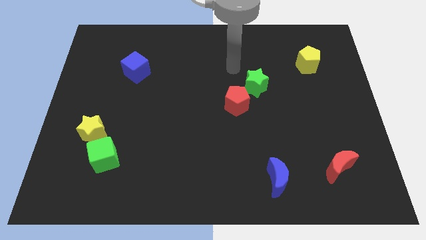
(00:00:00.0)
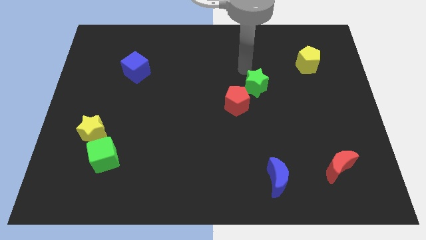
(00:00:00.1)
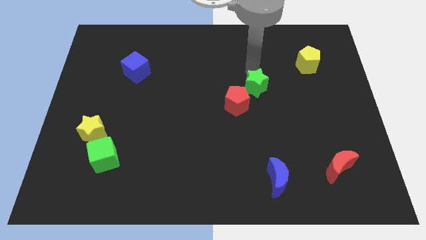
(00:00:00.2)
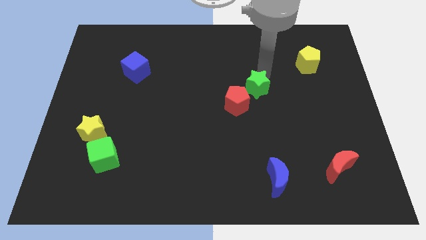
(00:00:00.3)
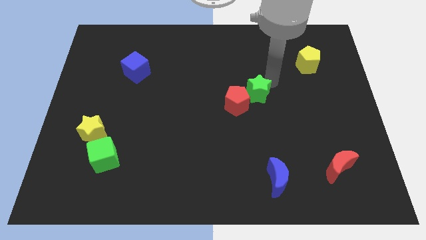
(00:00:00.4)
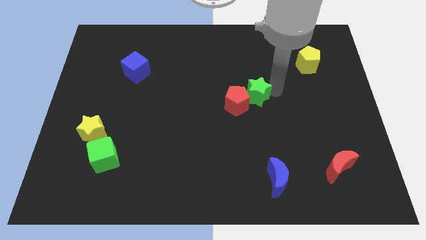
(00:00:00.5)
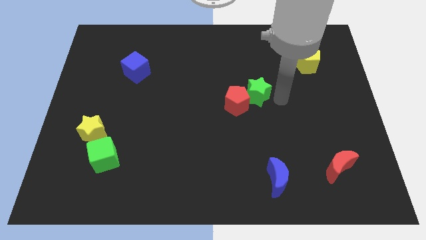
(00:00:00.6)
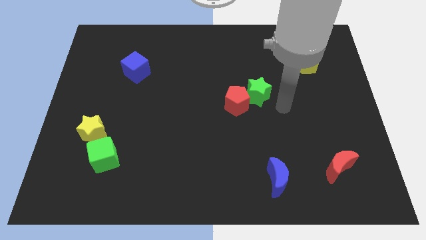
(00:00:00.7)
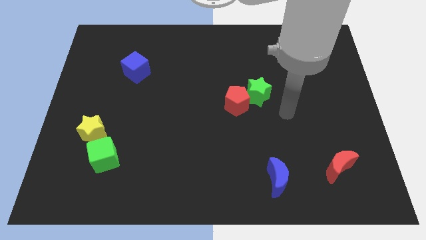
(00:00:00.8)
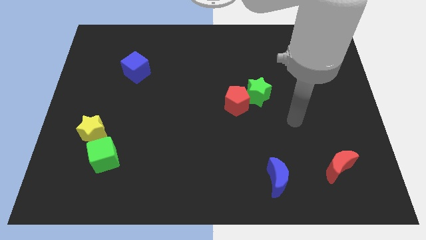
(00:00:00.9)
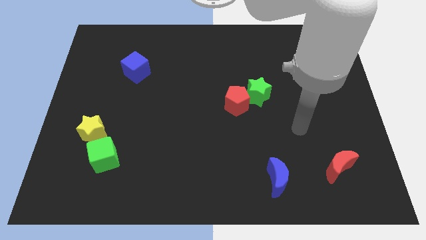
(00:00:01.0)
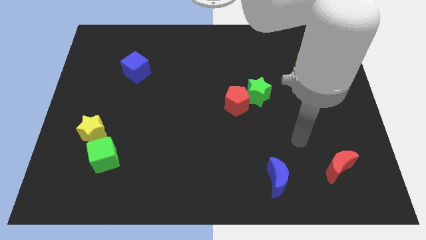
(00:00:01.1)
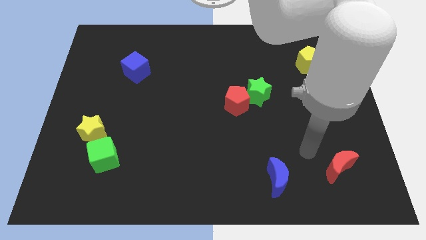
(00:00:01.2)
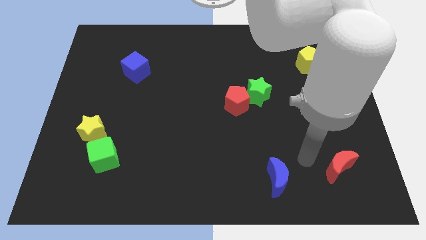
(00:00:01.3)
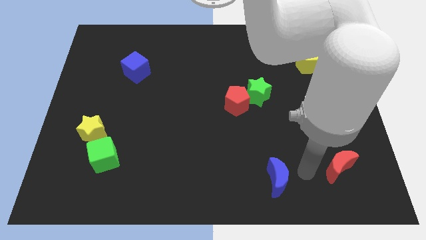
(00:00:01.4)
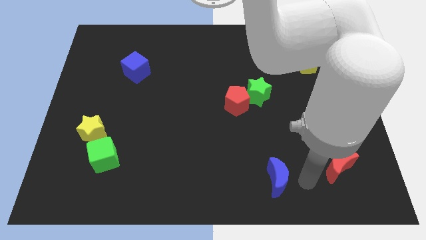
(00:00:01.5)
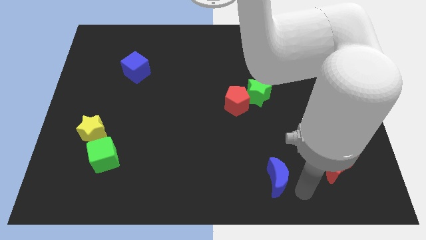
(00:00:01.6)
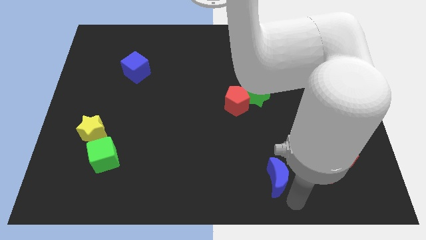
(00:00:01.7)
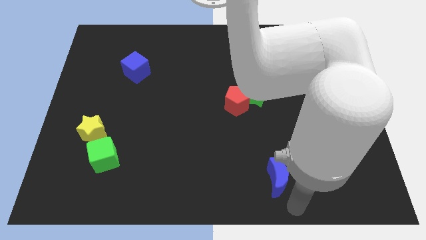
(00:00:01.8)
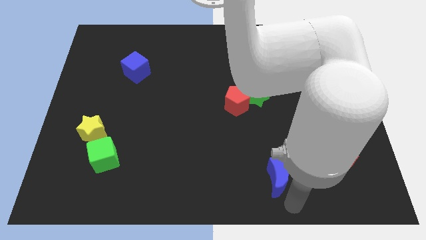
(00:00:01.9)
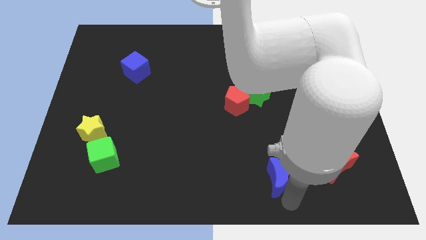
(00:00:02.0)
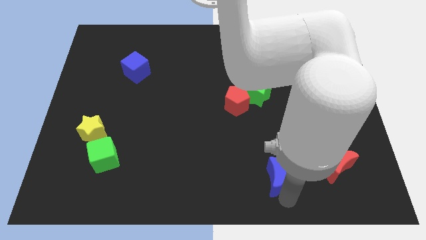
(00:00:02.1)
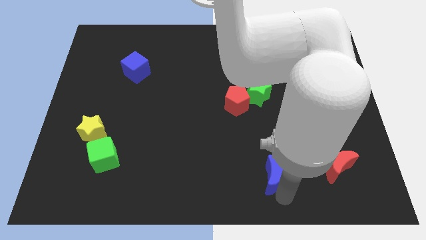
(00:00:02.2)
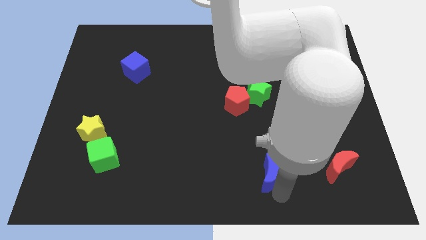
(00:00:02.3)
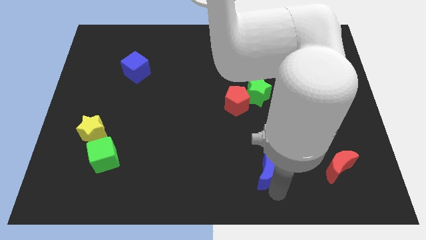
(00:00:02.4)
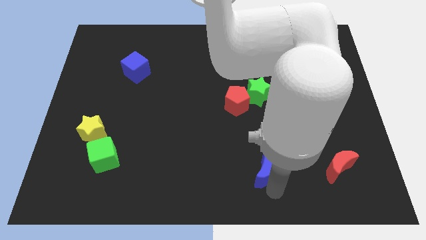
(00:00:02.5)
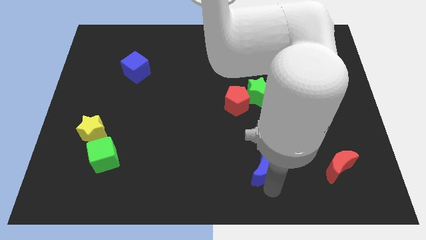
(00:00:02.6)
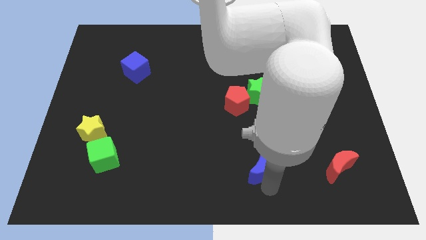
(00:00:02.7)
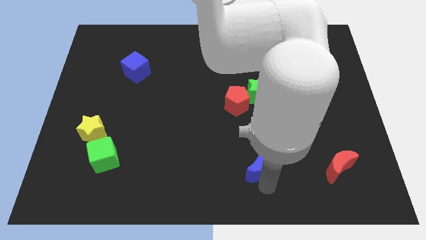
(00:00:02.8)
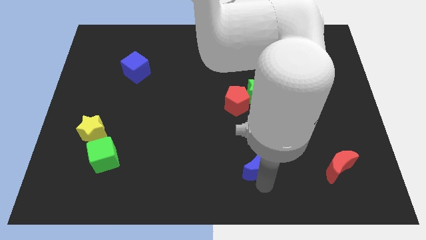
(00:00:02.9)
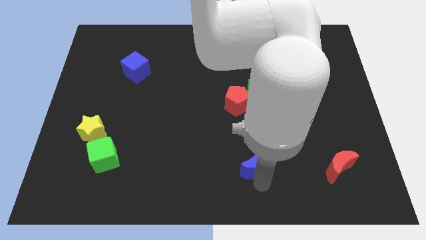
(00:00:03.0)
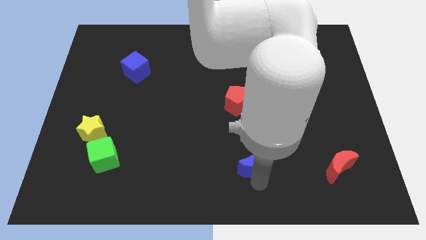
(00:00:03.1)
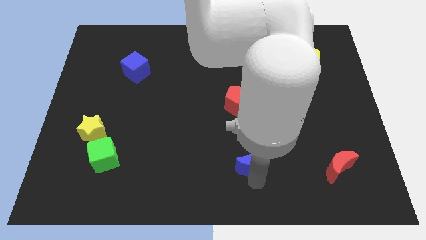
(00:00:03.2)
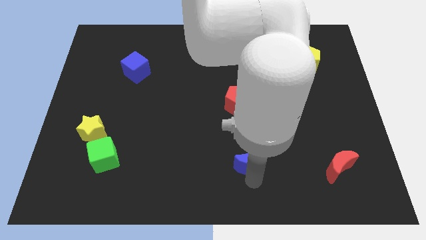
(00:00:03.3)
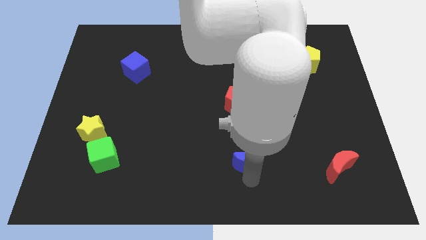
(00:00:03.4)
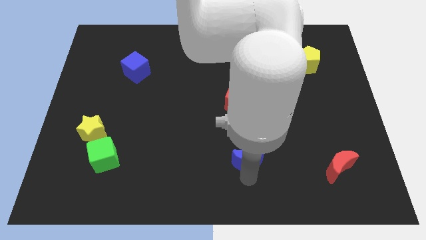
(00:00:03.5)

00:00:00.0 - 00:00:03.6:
slightly slide the blue moon upwards and then to the left

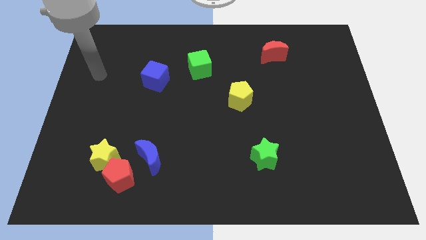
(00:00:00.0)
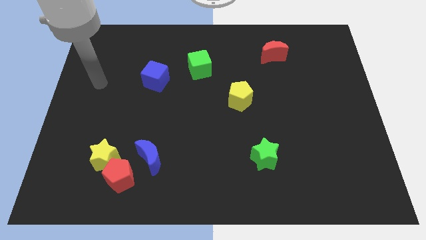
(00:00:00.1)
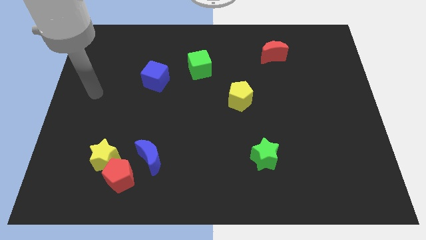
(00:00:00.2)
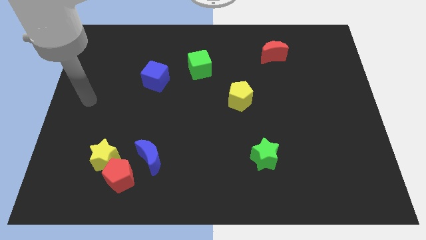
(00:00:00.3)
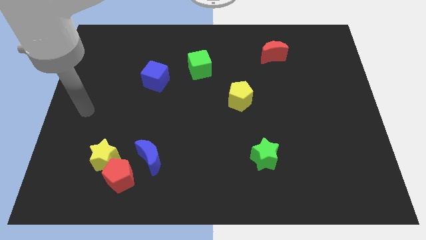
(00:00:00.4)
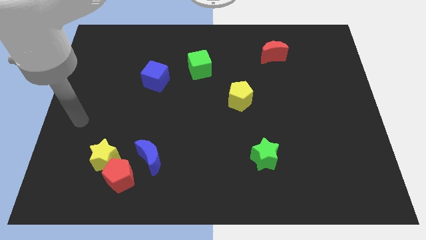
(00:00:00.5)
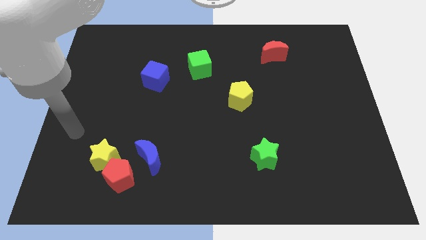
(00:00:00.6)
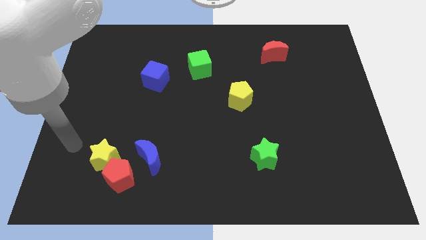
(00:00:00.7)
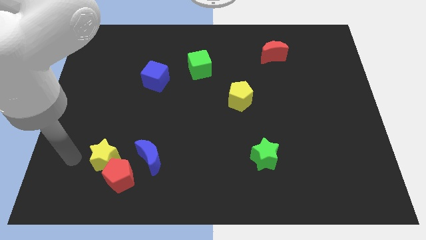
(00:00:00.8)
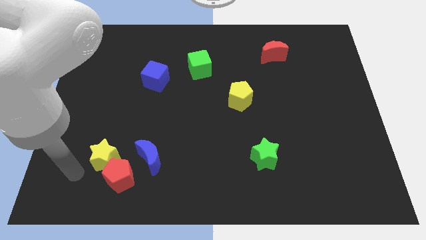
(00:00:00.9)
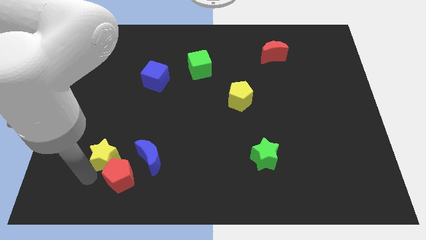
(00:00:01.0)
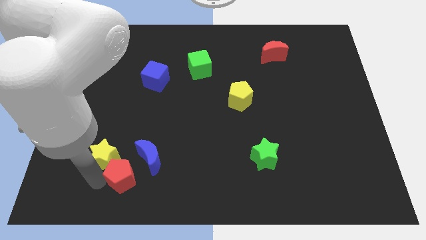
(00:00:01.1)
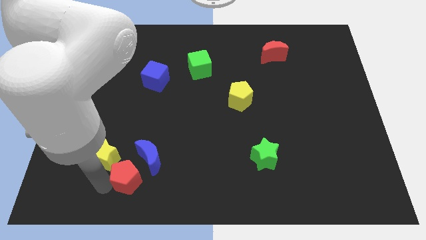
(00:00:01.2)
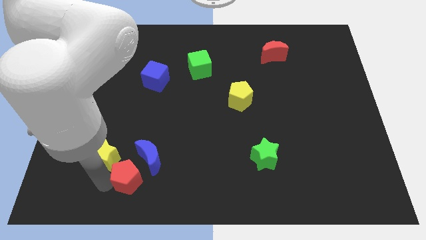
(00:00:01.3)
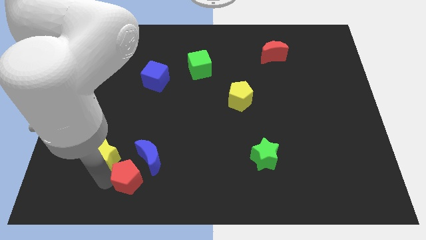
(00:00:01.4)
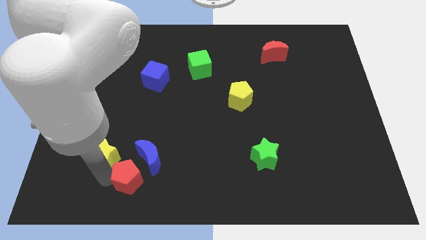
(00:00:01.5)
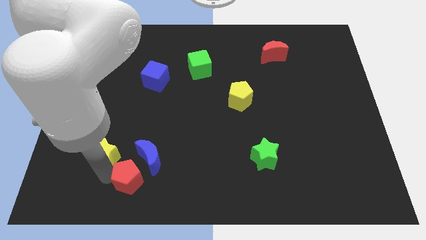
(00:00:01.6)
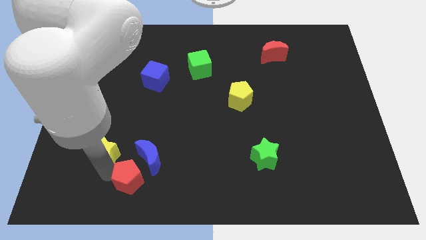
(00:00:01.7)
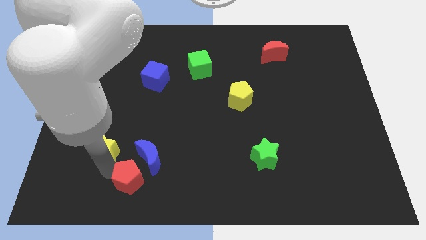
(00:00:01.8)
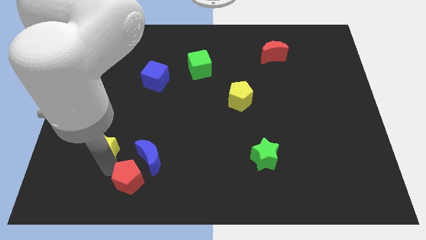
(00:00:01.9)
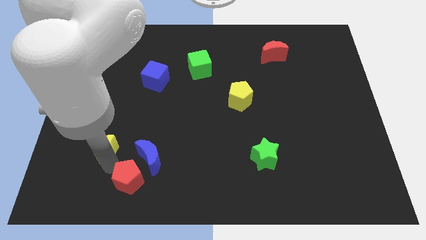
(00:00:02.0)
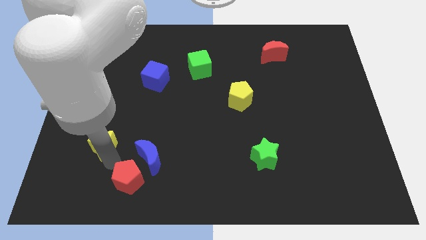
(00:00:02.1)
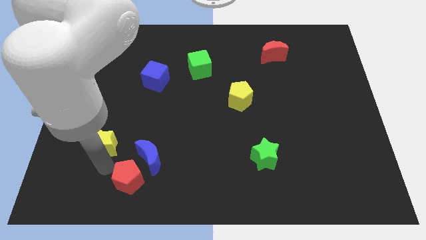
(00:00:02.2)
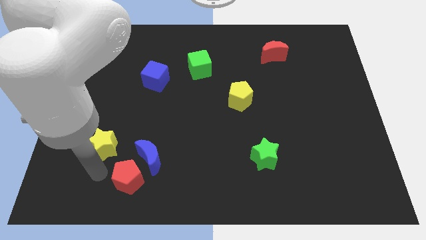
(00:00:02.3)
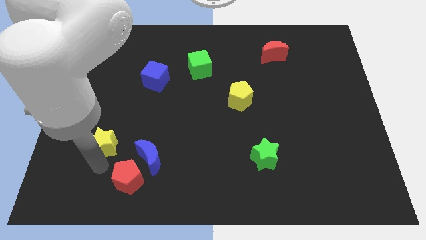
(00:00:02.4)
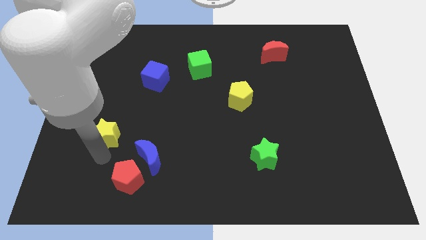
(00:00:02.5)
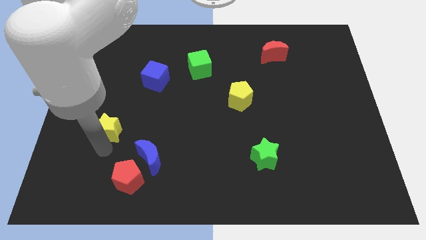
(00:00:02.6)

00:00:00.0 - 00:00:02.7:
push the yellow star upwards a little

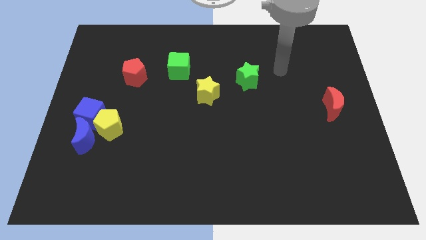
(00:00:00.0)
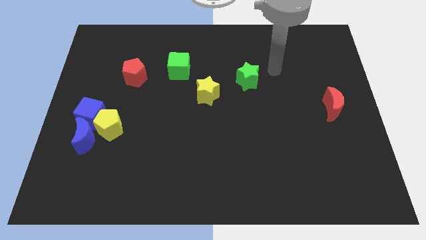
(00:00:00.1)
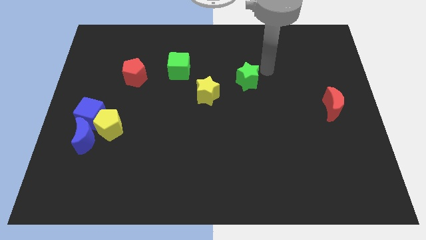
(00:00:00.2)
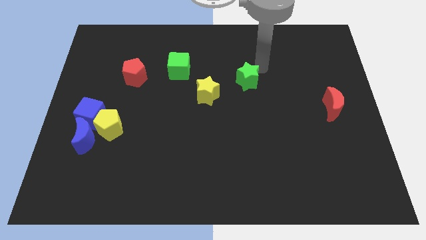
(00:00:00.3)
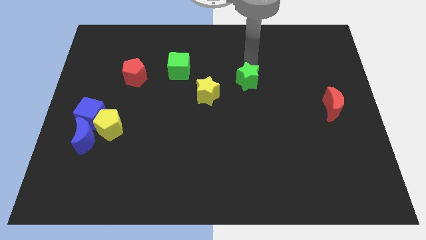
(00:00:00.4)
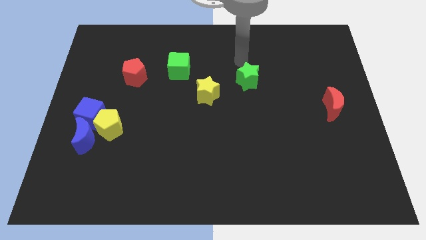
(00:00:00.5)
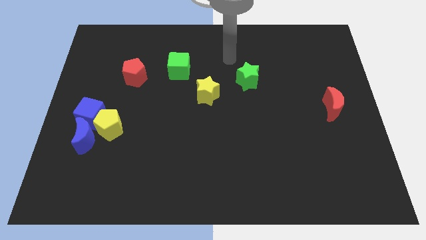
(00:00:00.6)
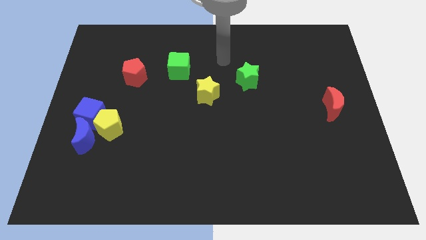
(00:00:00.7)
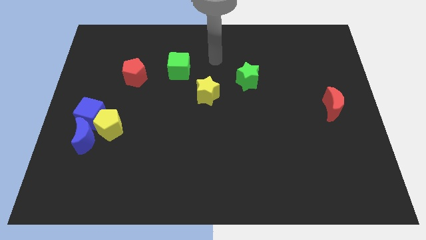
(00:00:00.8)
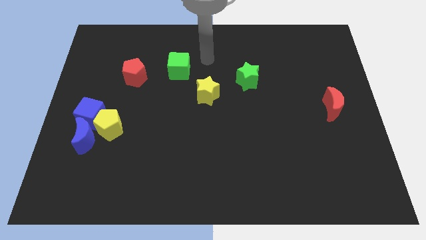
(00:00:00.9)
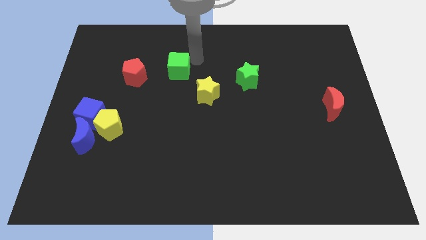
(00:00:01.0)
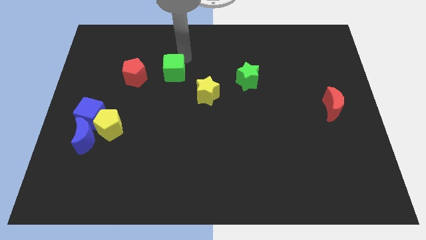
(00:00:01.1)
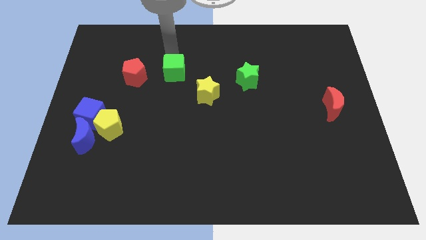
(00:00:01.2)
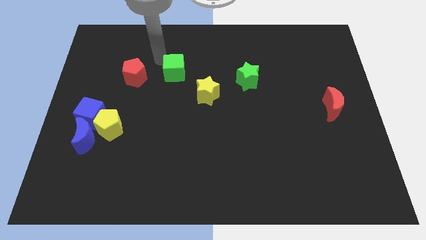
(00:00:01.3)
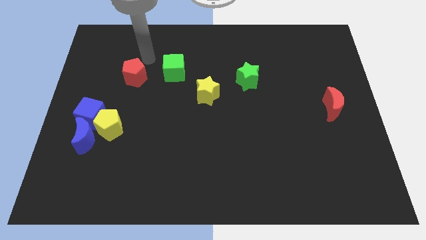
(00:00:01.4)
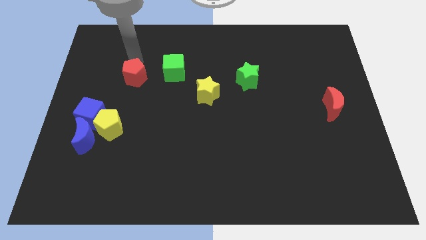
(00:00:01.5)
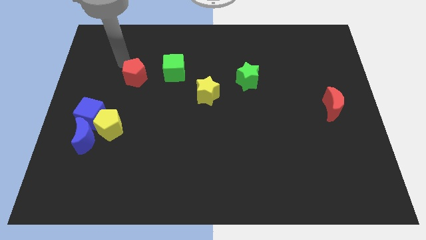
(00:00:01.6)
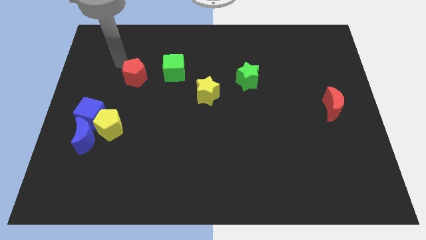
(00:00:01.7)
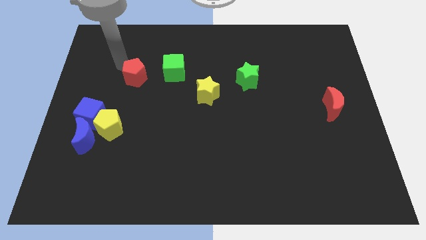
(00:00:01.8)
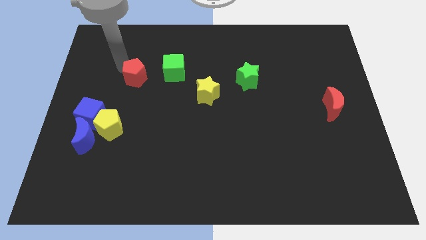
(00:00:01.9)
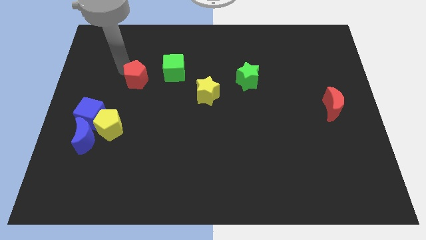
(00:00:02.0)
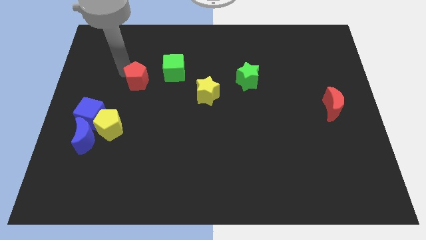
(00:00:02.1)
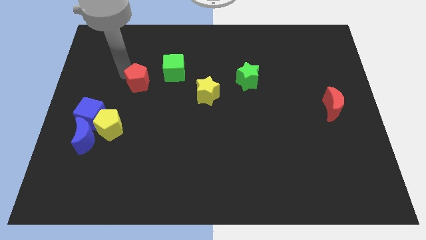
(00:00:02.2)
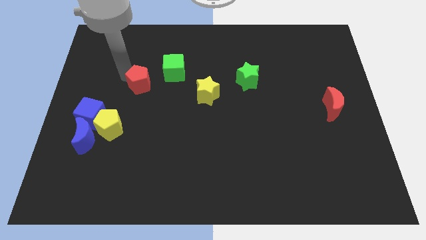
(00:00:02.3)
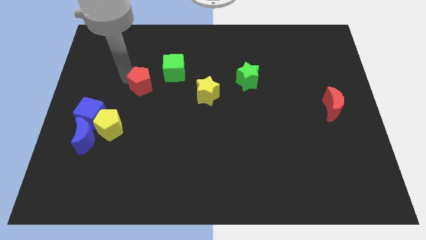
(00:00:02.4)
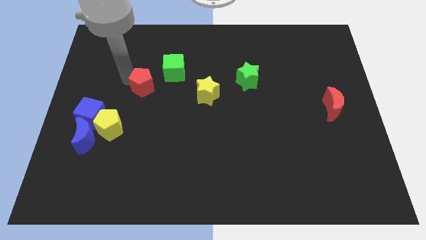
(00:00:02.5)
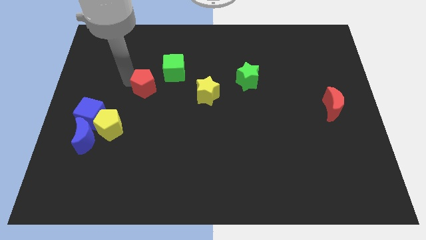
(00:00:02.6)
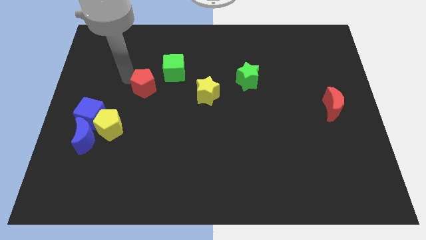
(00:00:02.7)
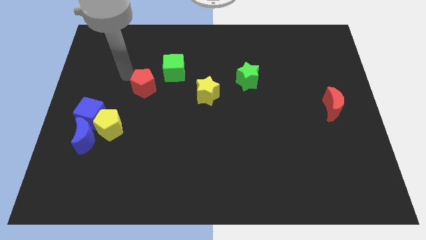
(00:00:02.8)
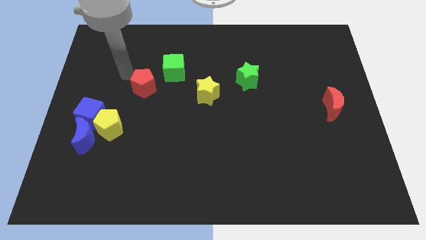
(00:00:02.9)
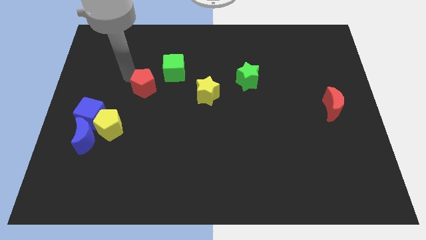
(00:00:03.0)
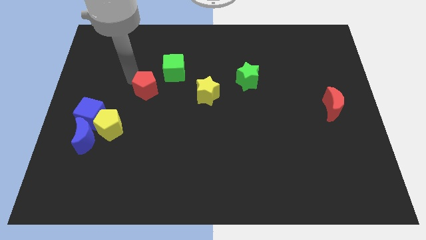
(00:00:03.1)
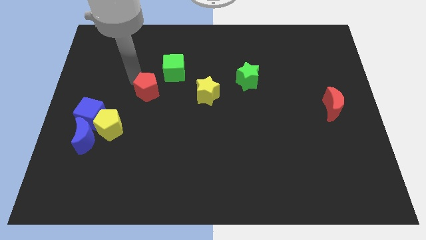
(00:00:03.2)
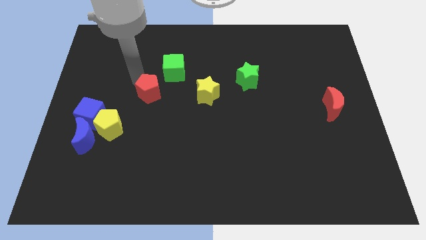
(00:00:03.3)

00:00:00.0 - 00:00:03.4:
slightly slide the red pentagon down and right
